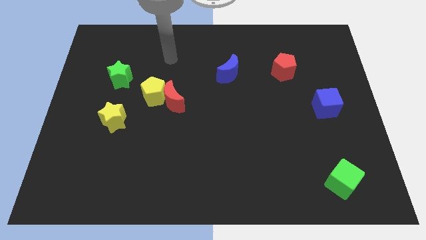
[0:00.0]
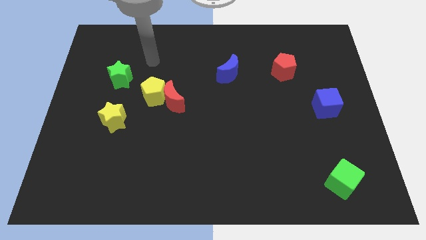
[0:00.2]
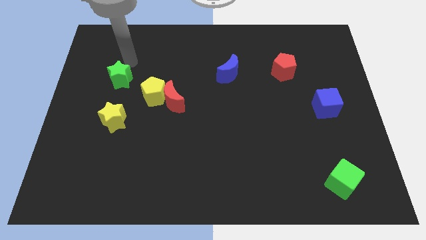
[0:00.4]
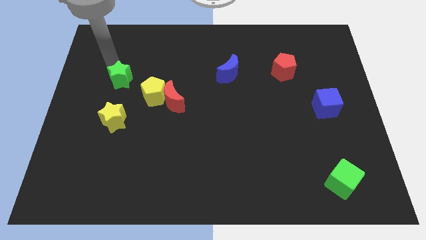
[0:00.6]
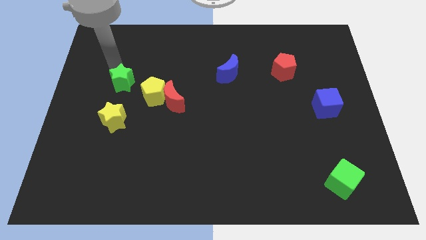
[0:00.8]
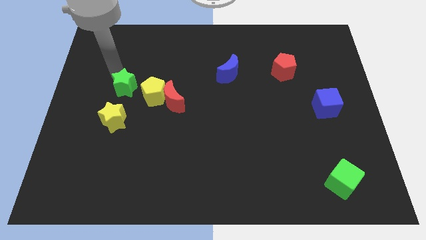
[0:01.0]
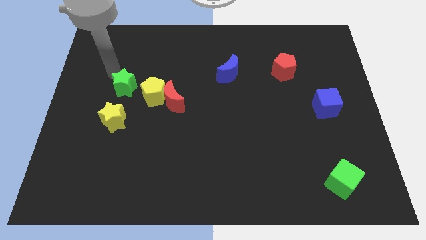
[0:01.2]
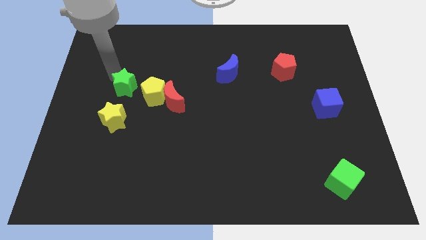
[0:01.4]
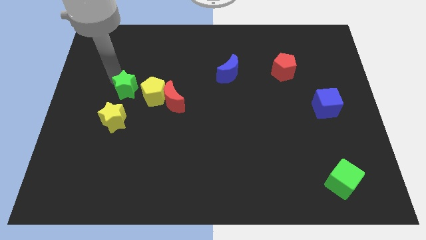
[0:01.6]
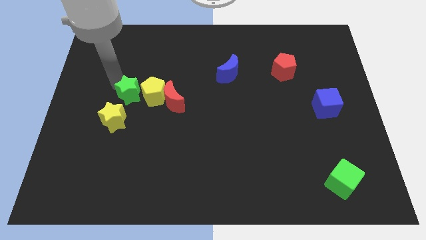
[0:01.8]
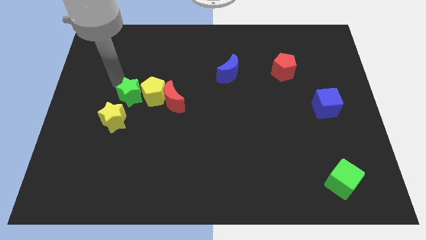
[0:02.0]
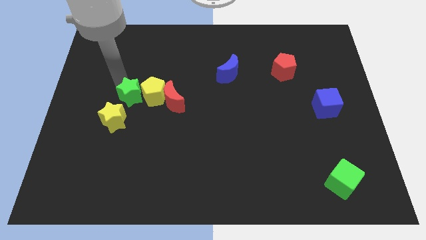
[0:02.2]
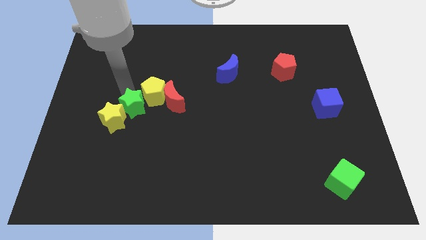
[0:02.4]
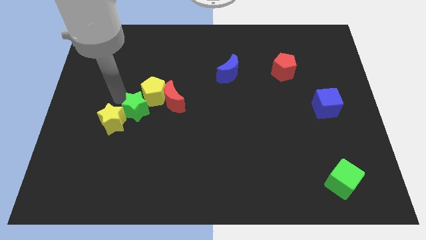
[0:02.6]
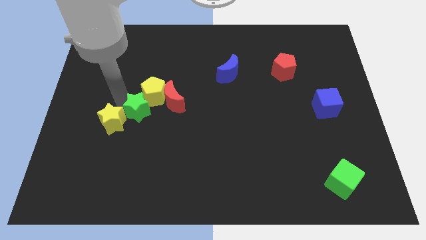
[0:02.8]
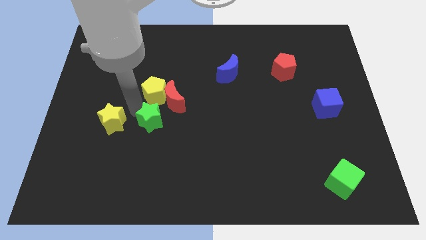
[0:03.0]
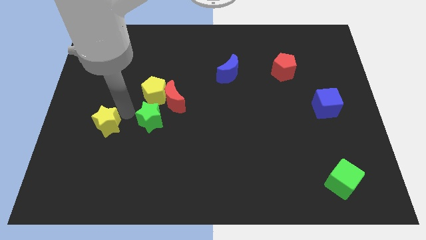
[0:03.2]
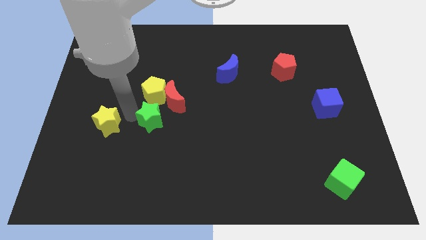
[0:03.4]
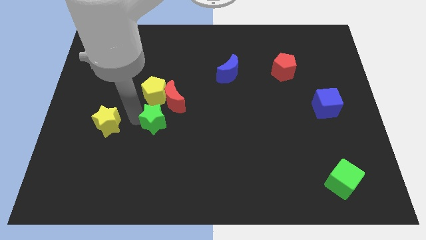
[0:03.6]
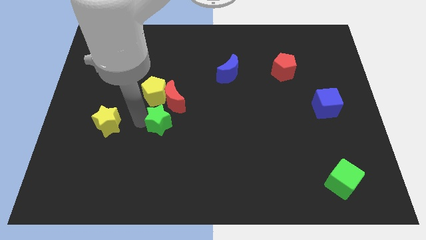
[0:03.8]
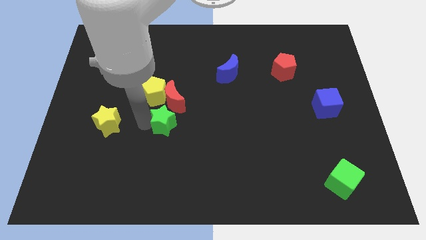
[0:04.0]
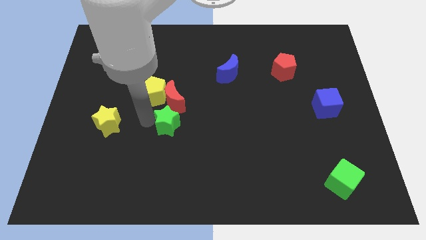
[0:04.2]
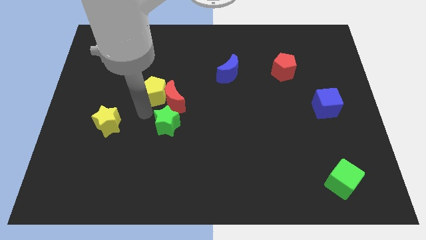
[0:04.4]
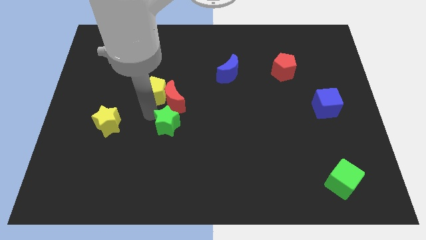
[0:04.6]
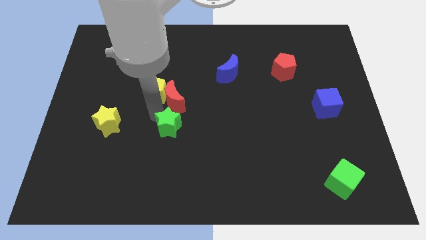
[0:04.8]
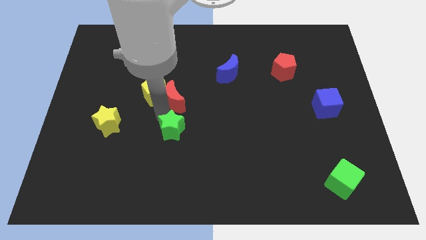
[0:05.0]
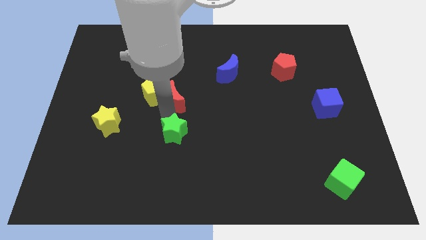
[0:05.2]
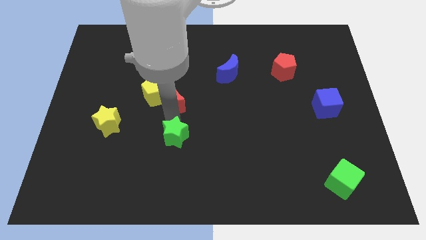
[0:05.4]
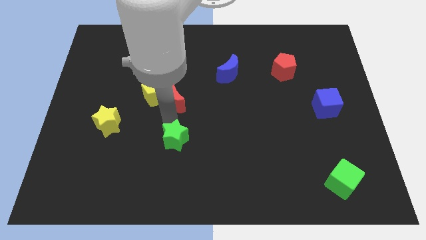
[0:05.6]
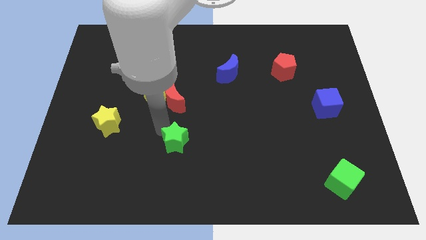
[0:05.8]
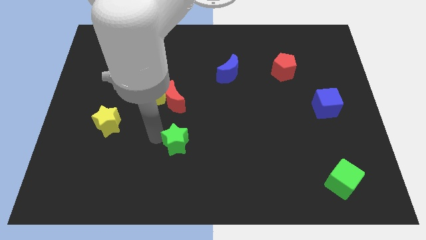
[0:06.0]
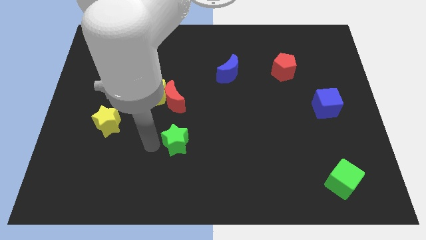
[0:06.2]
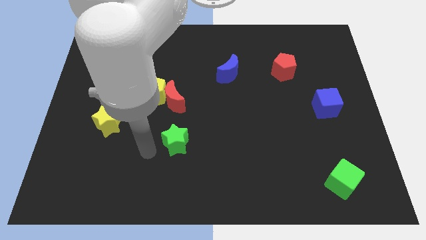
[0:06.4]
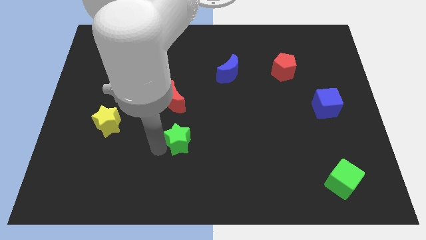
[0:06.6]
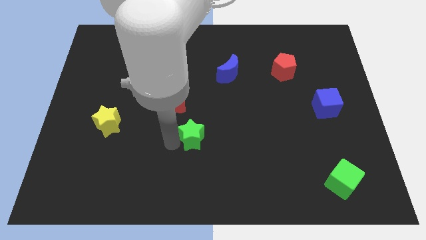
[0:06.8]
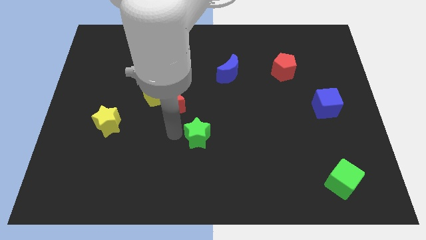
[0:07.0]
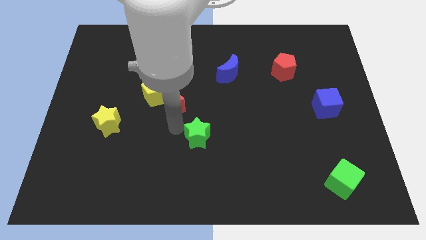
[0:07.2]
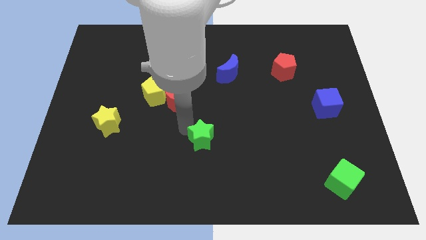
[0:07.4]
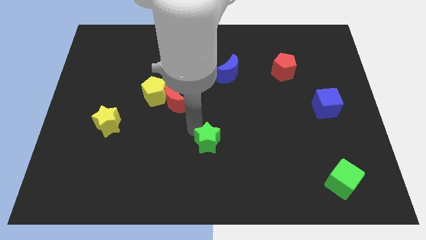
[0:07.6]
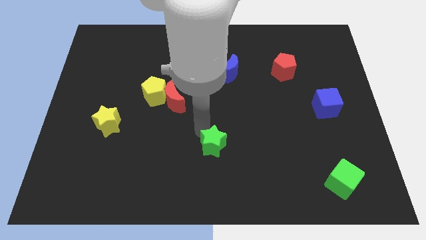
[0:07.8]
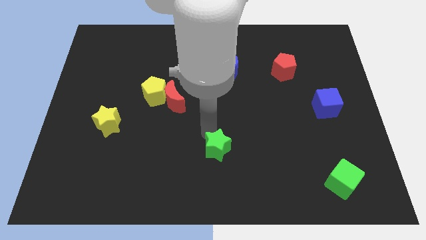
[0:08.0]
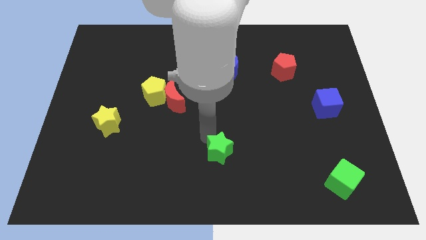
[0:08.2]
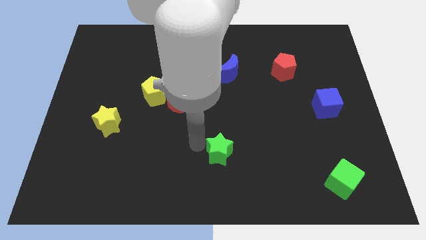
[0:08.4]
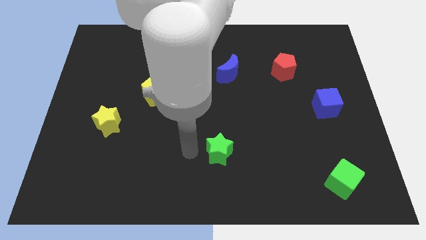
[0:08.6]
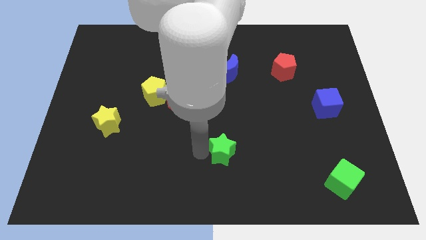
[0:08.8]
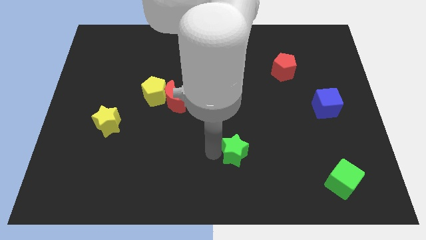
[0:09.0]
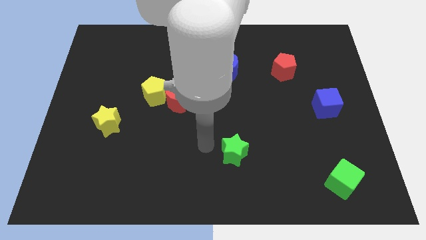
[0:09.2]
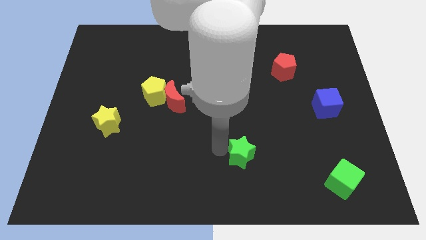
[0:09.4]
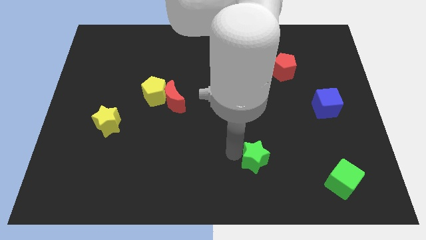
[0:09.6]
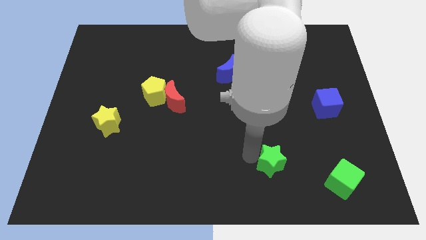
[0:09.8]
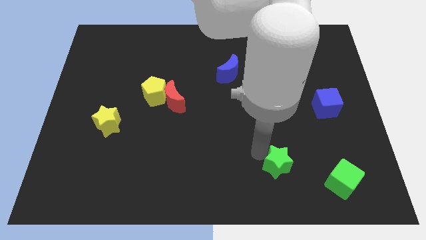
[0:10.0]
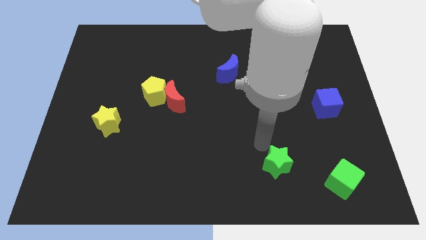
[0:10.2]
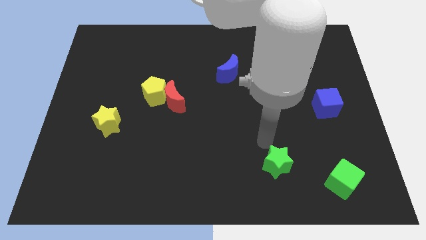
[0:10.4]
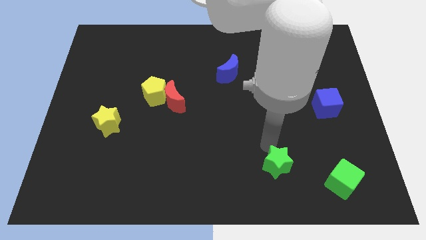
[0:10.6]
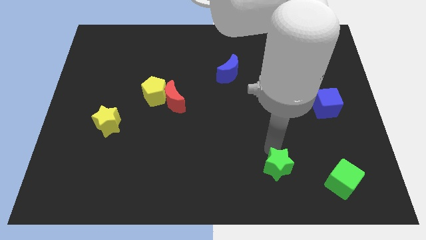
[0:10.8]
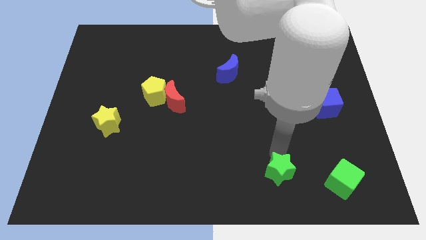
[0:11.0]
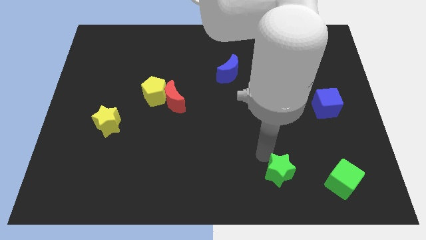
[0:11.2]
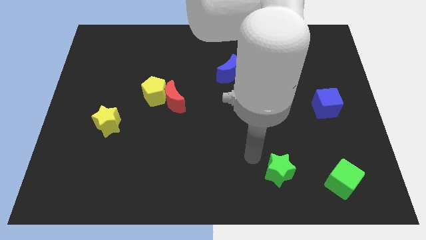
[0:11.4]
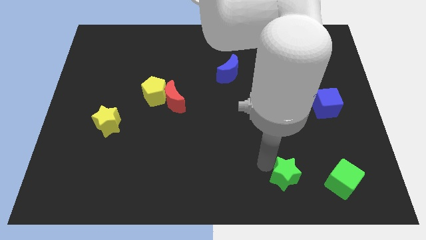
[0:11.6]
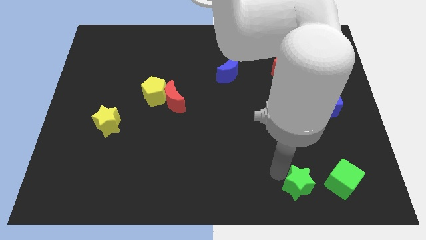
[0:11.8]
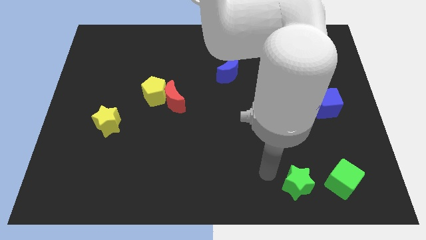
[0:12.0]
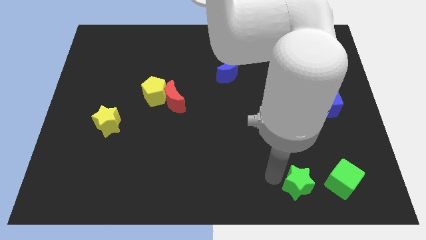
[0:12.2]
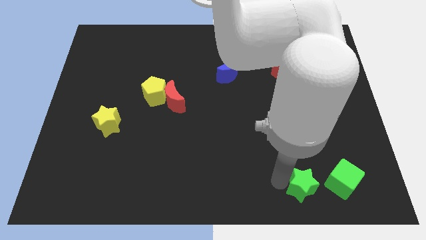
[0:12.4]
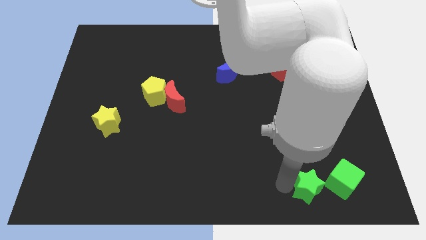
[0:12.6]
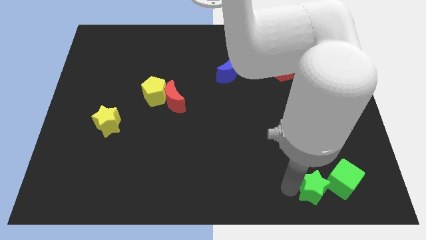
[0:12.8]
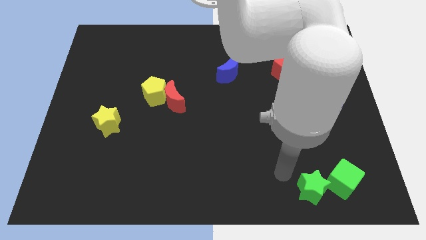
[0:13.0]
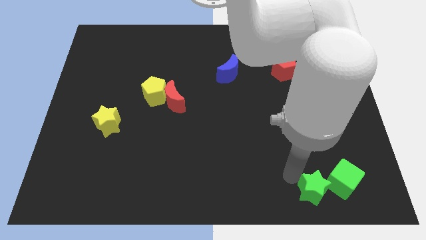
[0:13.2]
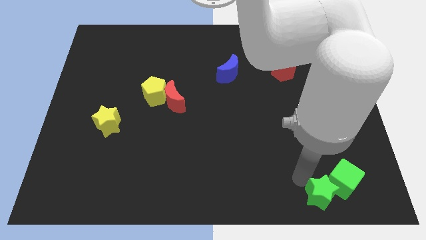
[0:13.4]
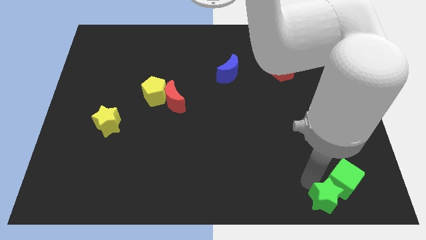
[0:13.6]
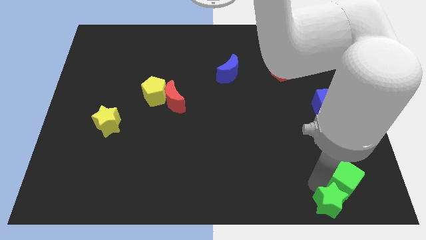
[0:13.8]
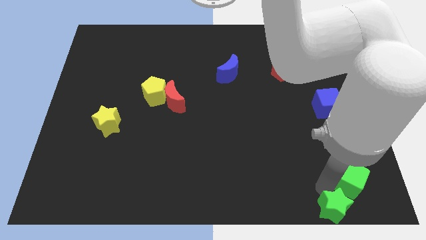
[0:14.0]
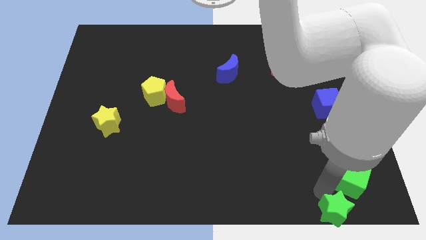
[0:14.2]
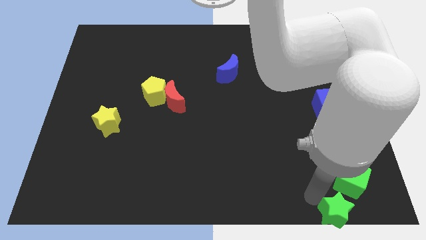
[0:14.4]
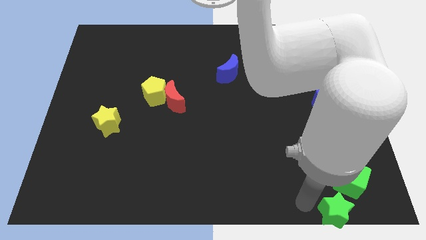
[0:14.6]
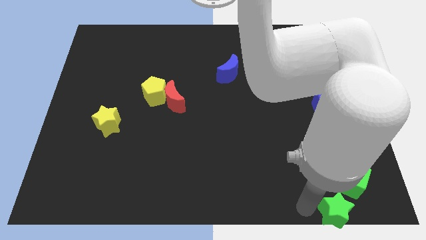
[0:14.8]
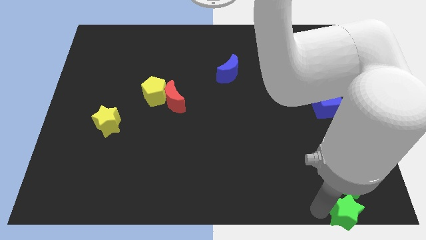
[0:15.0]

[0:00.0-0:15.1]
move the green star to the lower right corner
